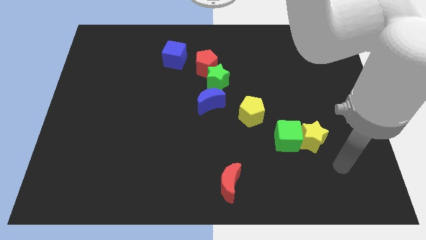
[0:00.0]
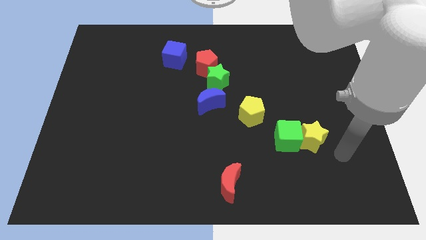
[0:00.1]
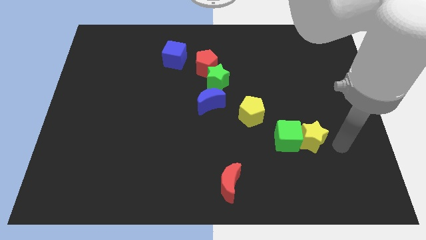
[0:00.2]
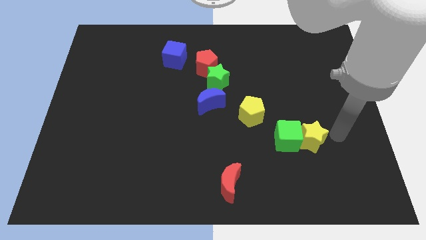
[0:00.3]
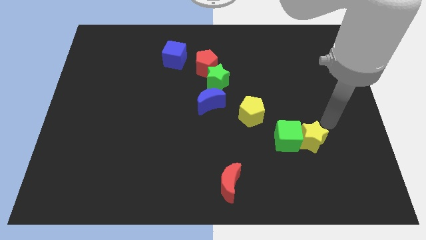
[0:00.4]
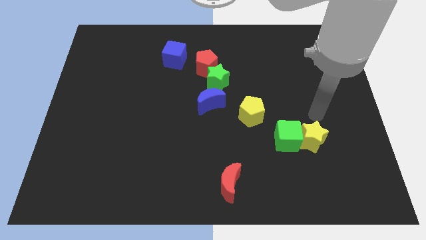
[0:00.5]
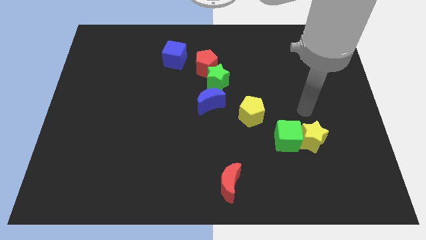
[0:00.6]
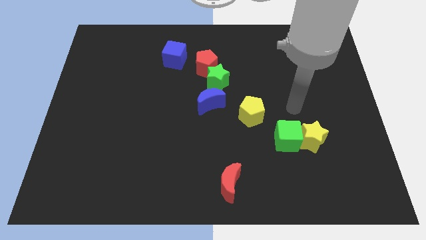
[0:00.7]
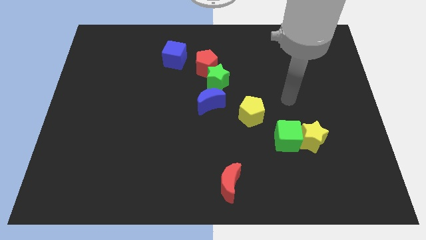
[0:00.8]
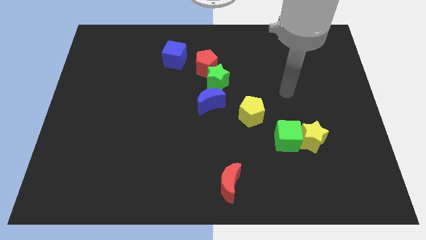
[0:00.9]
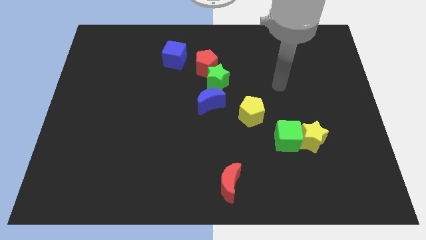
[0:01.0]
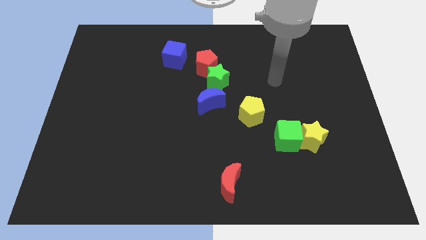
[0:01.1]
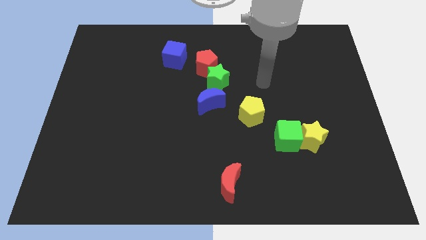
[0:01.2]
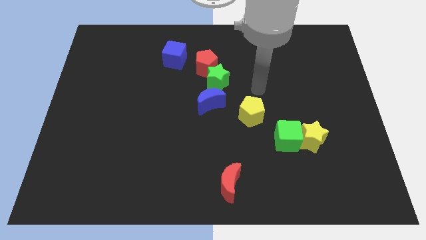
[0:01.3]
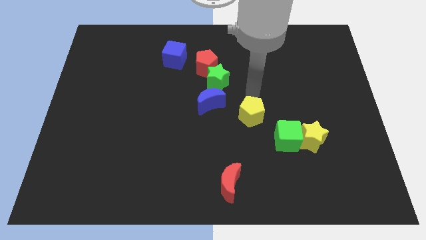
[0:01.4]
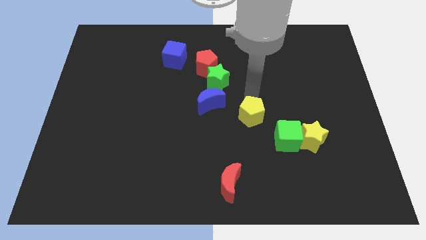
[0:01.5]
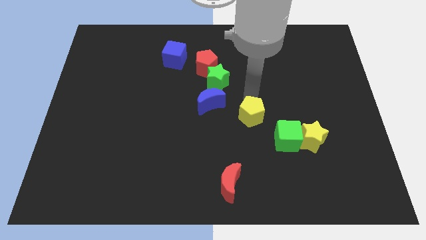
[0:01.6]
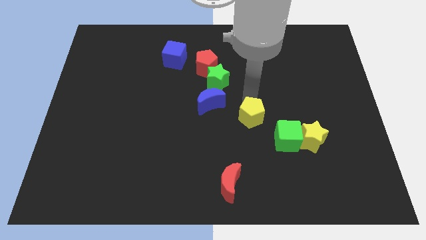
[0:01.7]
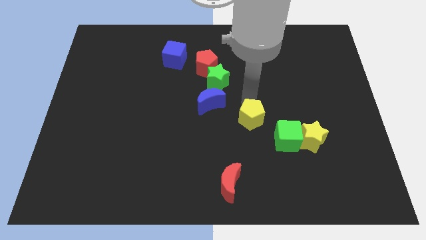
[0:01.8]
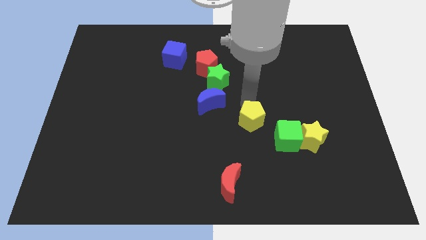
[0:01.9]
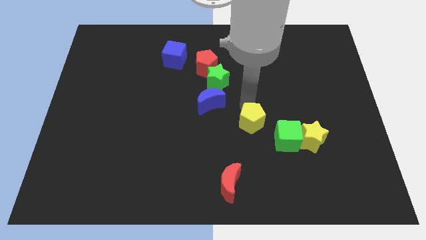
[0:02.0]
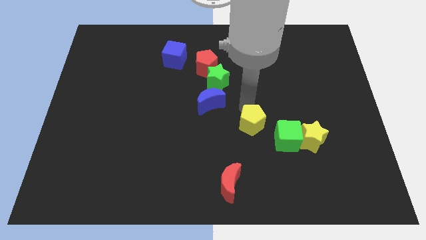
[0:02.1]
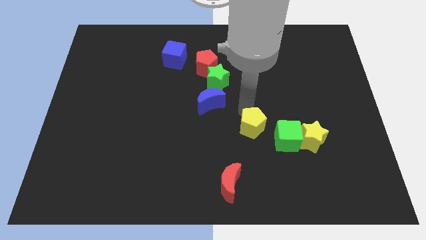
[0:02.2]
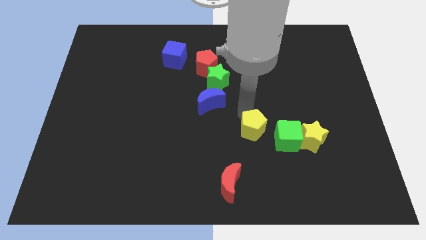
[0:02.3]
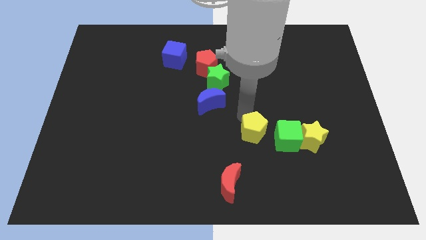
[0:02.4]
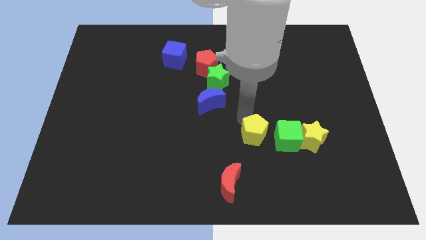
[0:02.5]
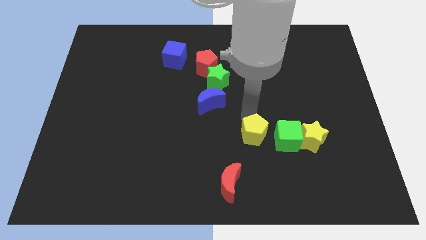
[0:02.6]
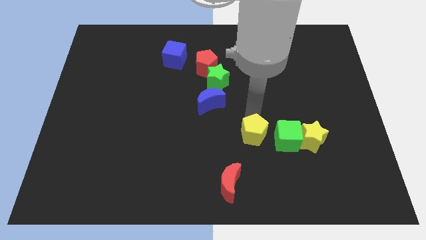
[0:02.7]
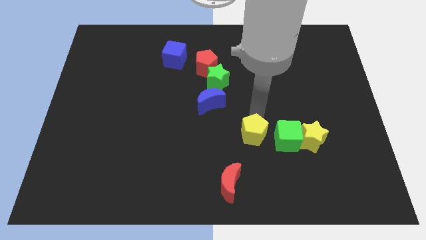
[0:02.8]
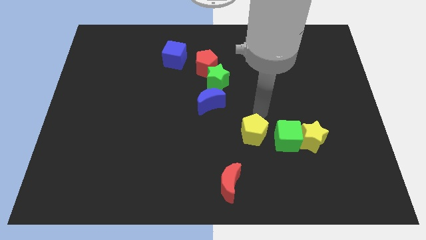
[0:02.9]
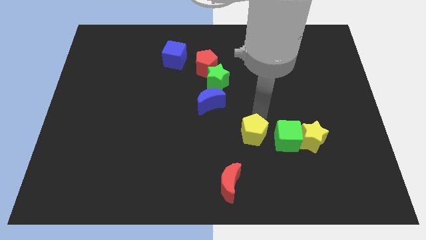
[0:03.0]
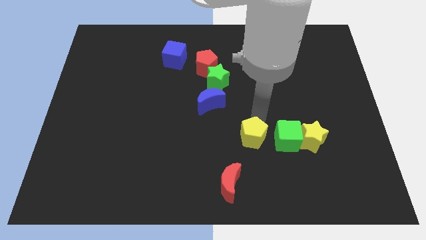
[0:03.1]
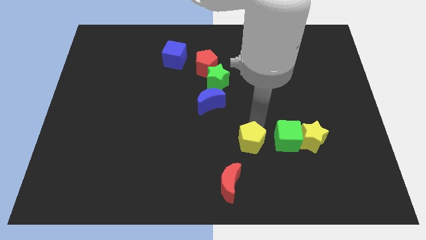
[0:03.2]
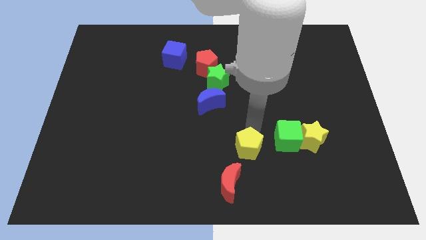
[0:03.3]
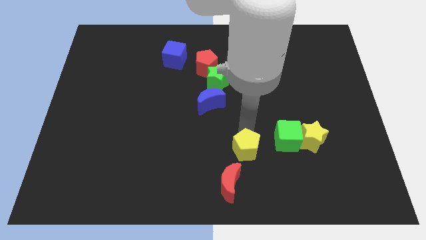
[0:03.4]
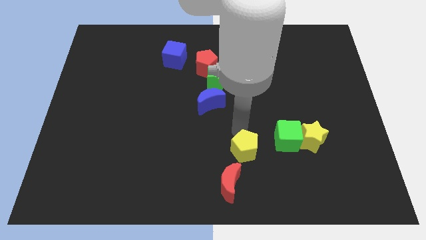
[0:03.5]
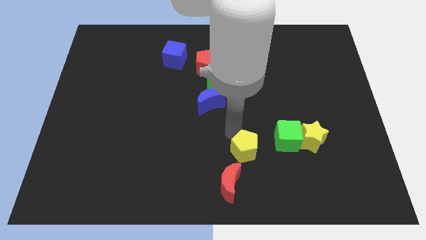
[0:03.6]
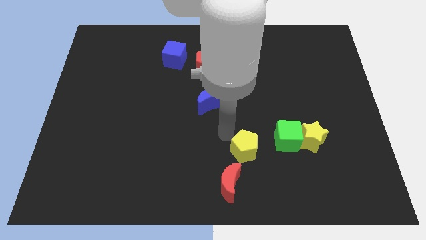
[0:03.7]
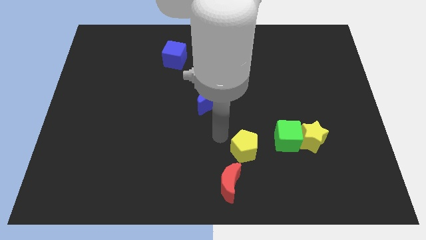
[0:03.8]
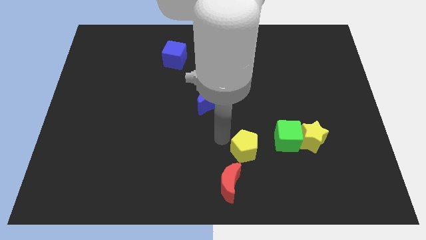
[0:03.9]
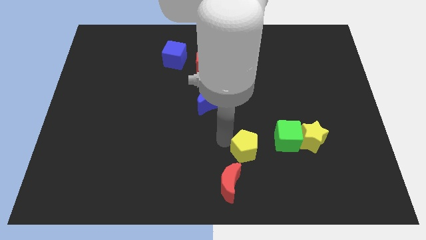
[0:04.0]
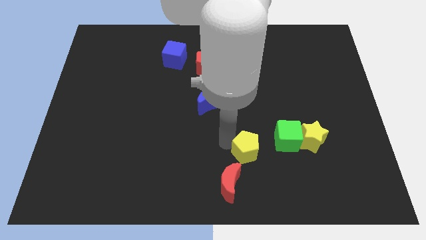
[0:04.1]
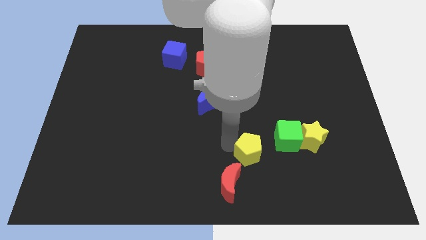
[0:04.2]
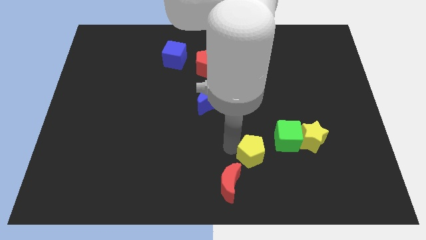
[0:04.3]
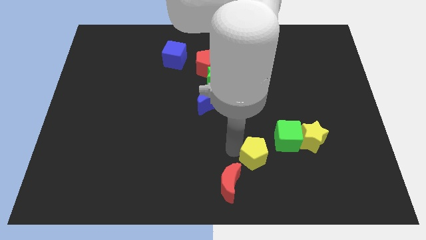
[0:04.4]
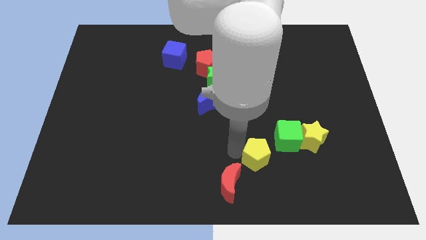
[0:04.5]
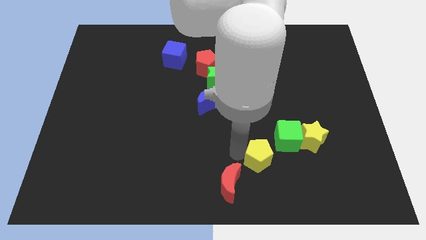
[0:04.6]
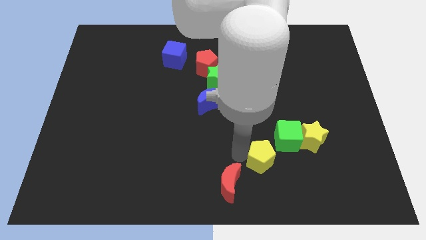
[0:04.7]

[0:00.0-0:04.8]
move the yellow pentagon downwards and to the right a little bit

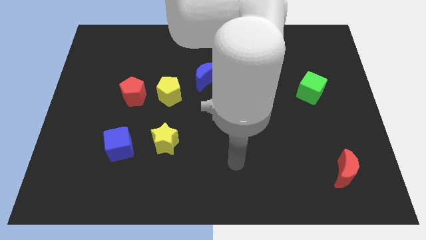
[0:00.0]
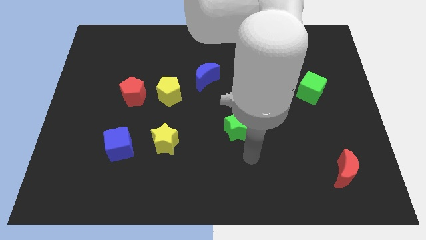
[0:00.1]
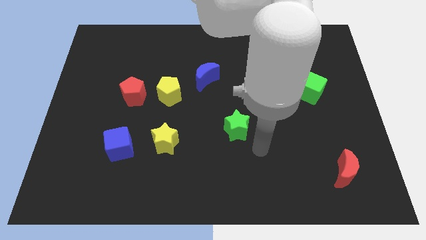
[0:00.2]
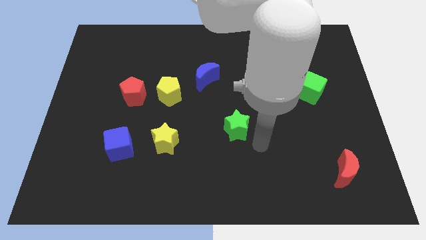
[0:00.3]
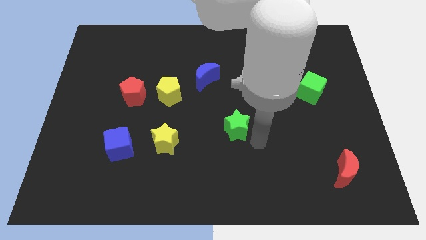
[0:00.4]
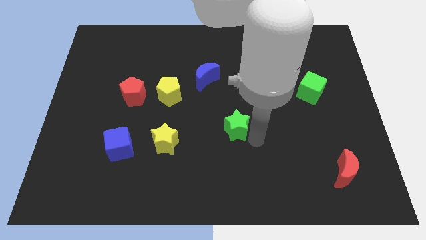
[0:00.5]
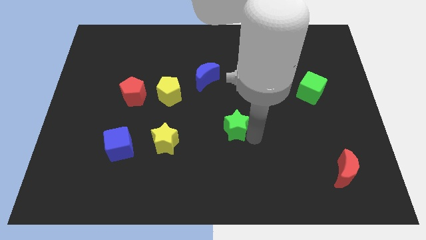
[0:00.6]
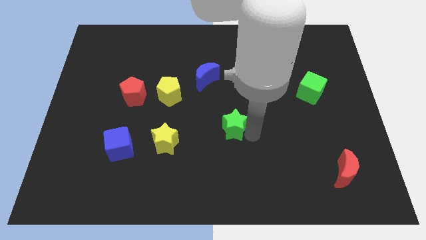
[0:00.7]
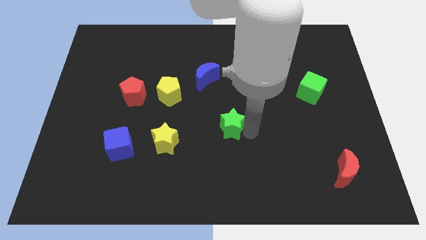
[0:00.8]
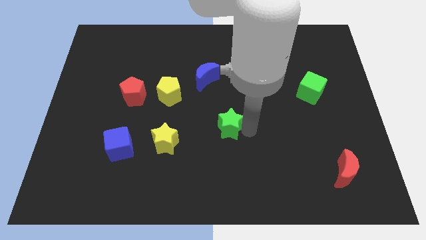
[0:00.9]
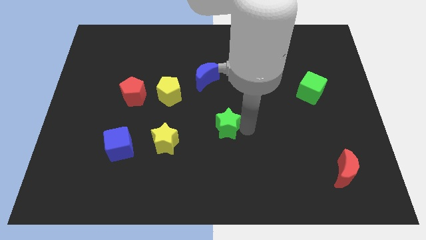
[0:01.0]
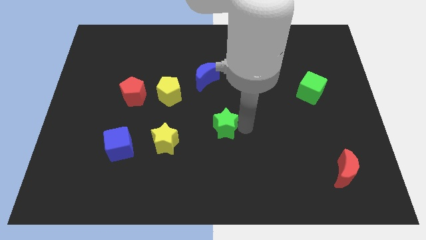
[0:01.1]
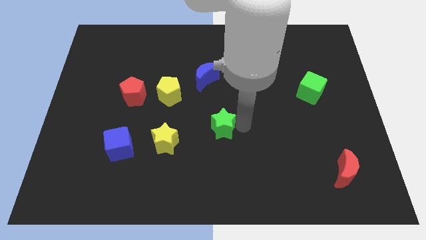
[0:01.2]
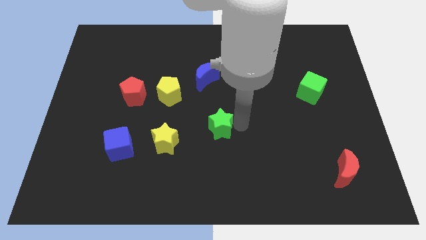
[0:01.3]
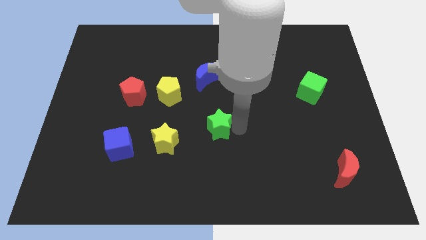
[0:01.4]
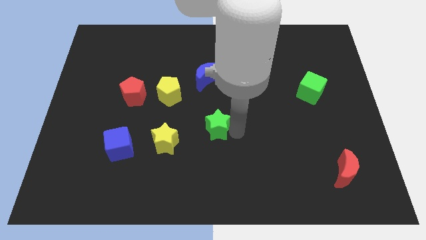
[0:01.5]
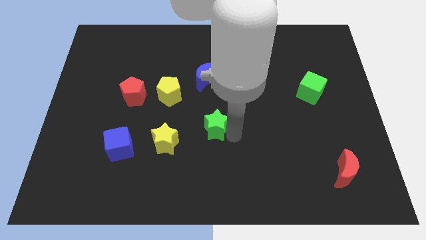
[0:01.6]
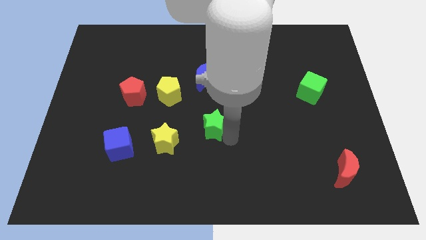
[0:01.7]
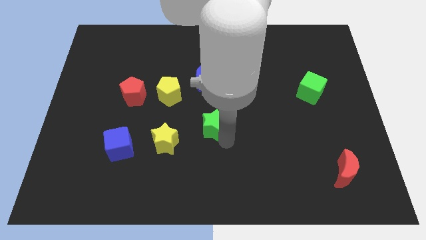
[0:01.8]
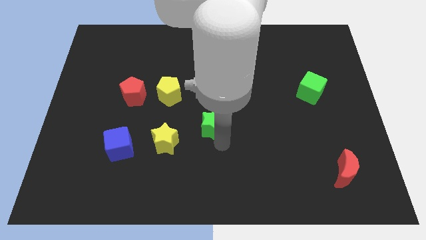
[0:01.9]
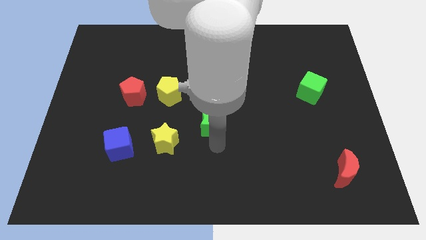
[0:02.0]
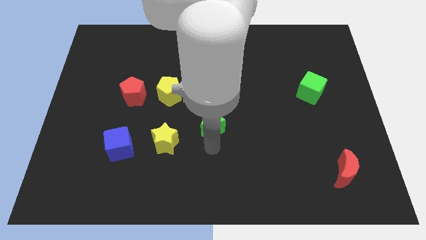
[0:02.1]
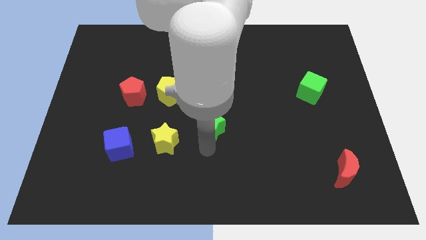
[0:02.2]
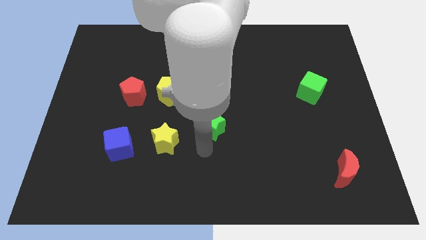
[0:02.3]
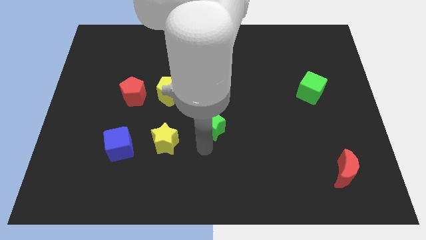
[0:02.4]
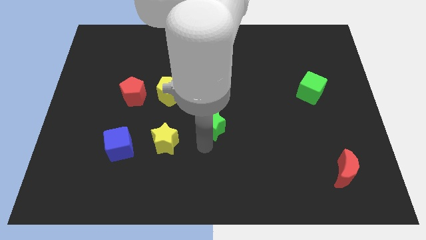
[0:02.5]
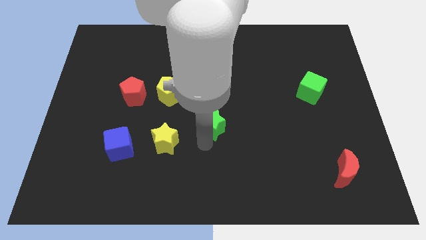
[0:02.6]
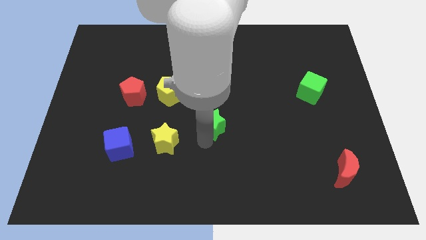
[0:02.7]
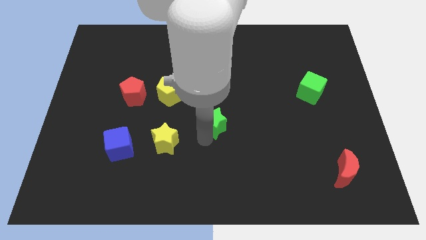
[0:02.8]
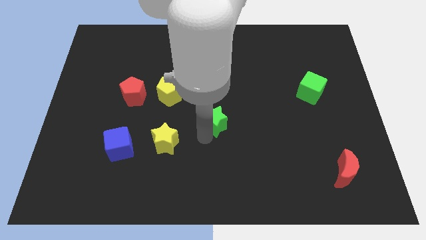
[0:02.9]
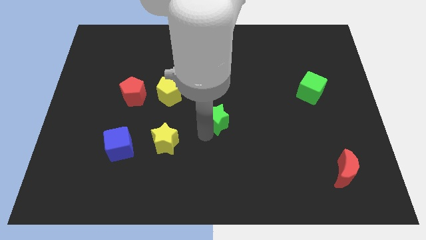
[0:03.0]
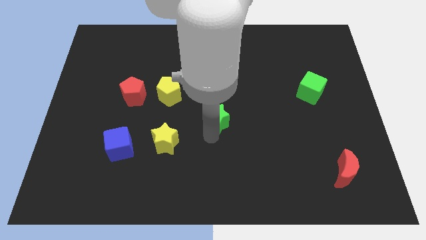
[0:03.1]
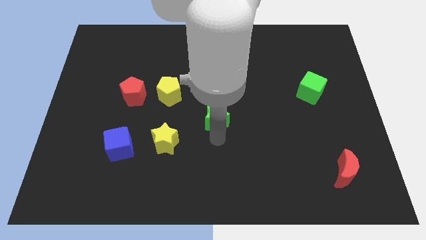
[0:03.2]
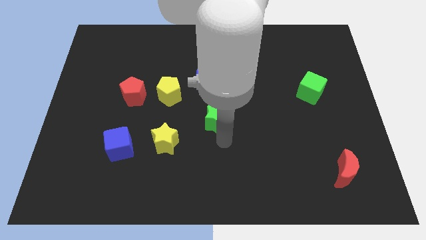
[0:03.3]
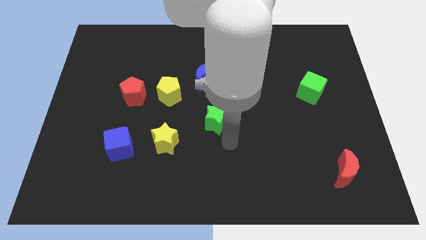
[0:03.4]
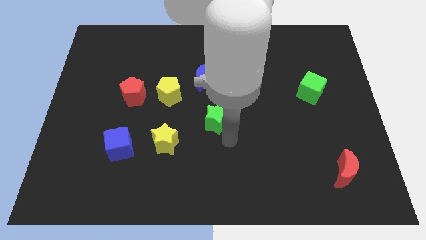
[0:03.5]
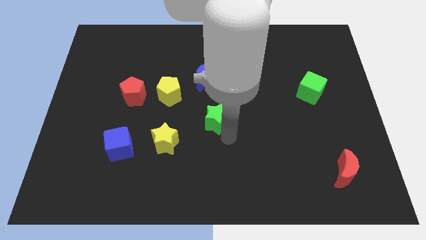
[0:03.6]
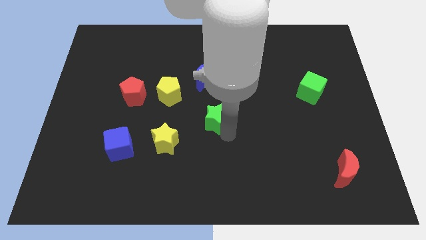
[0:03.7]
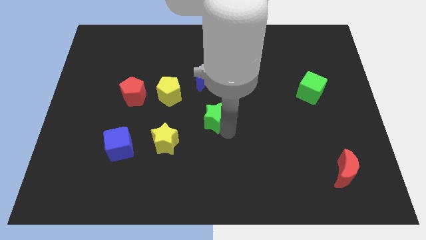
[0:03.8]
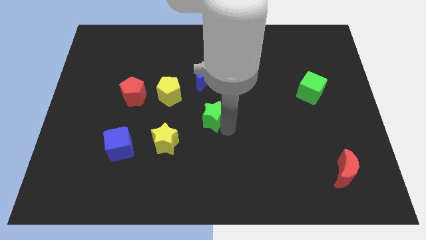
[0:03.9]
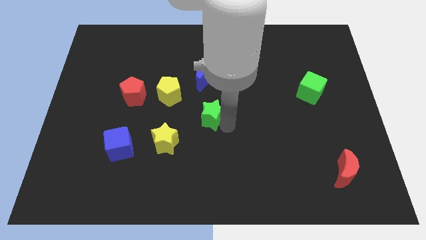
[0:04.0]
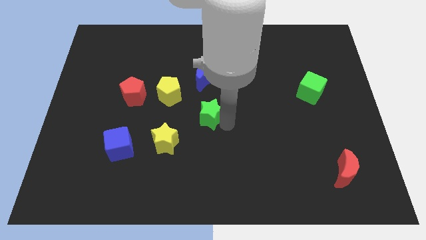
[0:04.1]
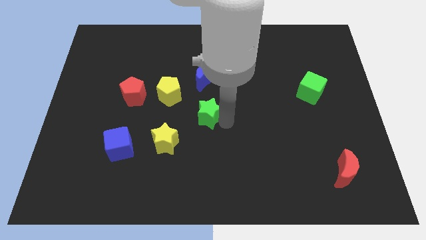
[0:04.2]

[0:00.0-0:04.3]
push the green star up and left a little
